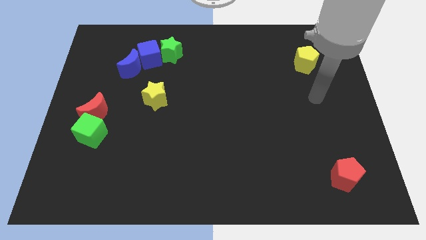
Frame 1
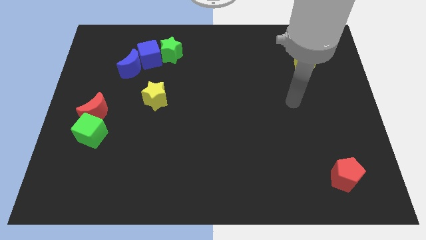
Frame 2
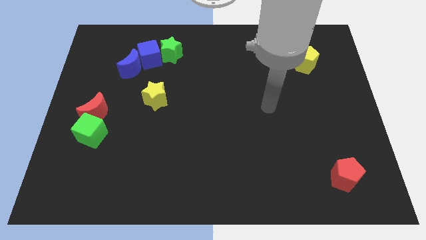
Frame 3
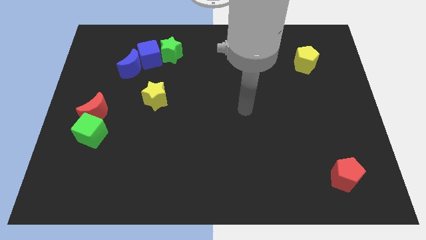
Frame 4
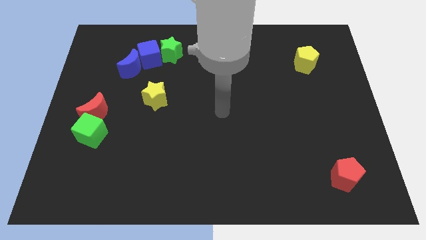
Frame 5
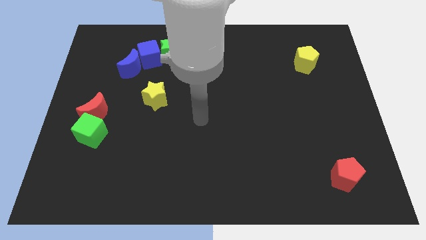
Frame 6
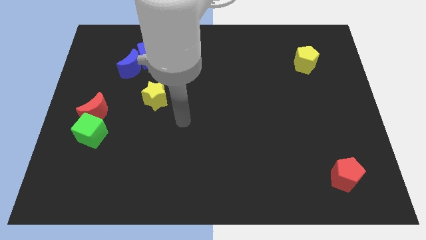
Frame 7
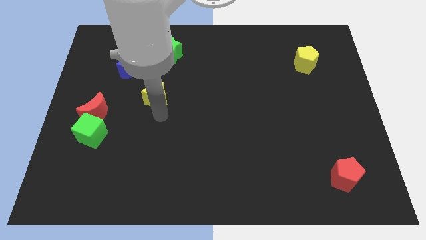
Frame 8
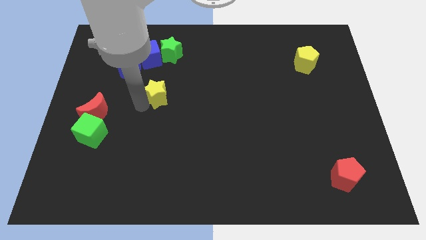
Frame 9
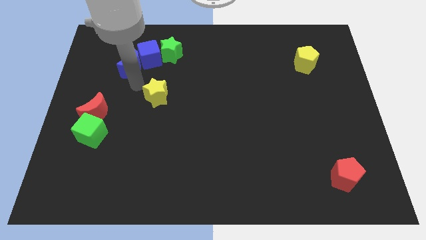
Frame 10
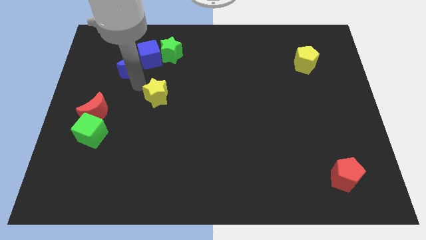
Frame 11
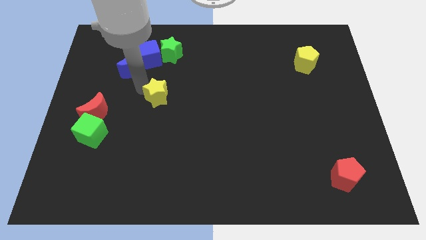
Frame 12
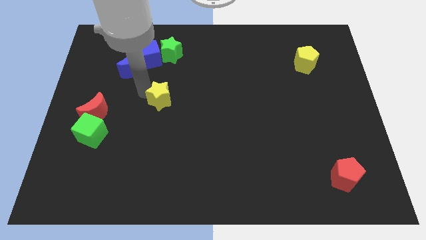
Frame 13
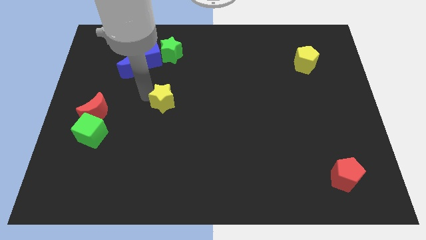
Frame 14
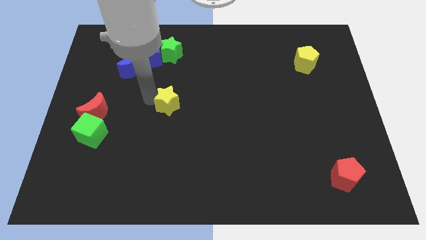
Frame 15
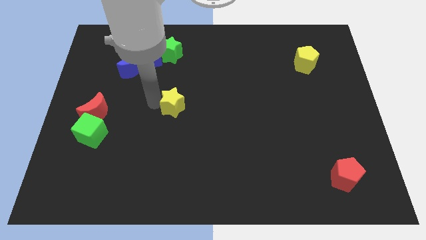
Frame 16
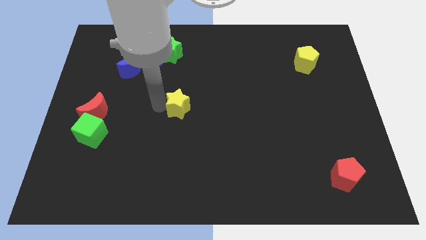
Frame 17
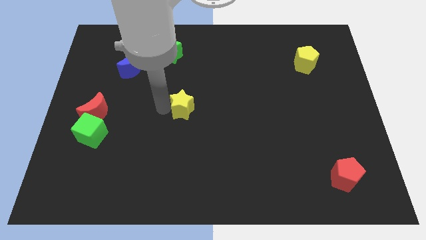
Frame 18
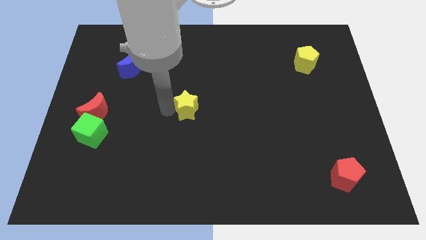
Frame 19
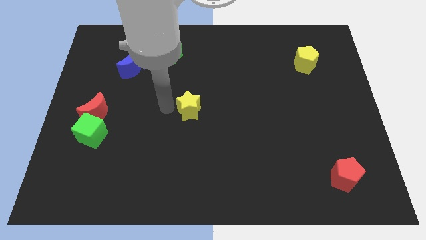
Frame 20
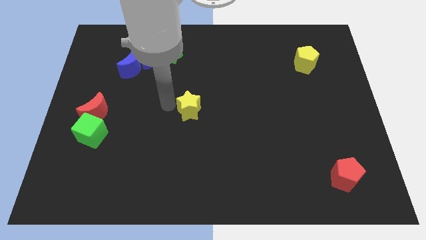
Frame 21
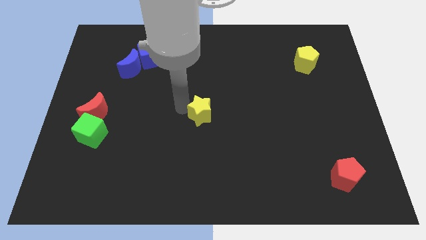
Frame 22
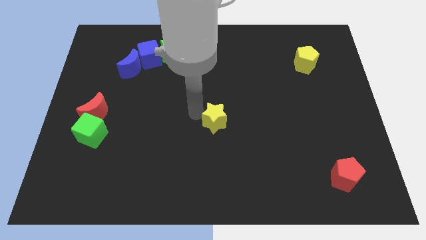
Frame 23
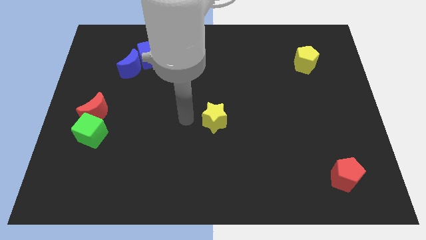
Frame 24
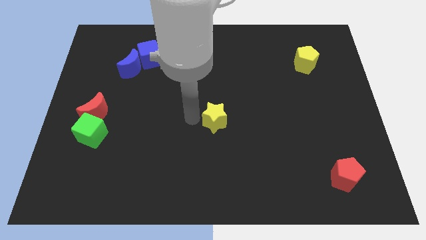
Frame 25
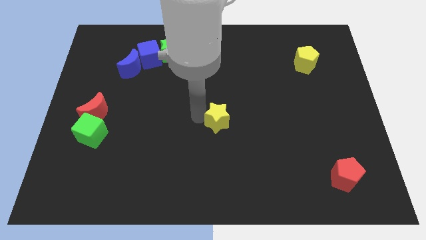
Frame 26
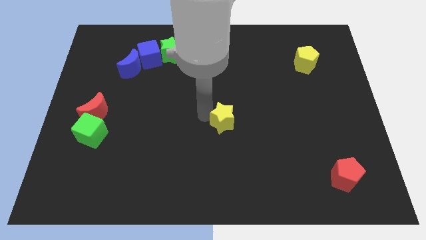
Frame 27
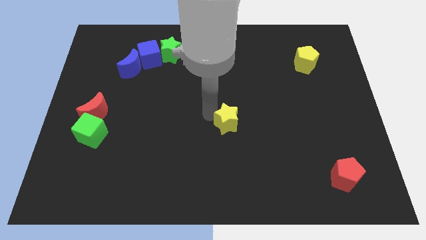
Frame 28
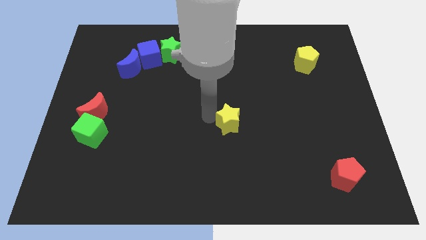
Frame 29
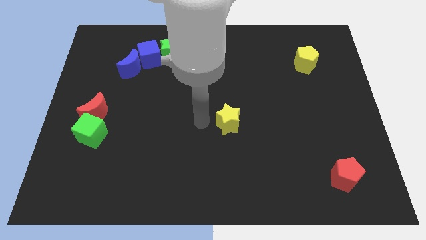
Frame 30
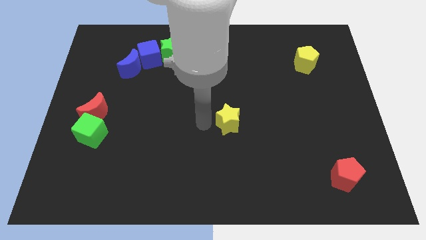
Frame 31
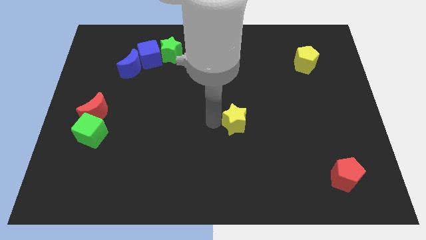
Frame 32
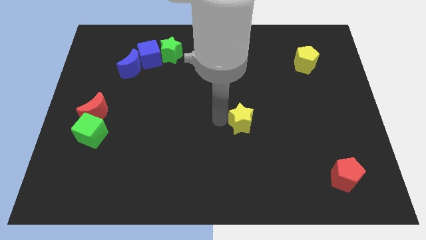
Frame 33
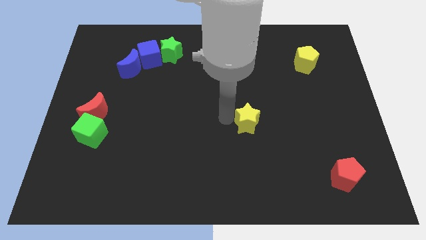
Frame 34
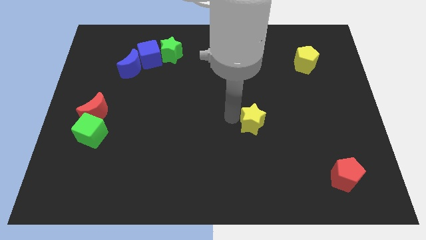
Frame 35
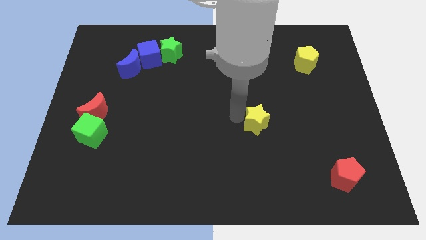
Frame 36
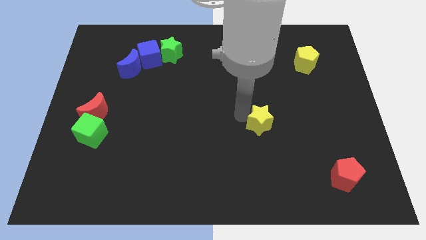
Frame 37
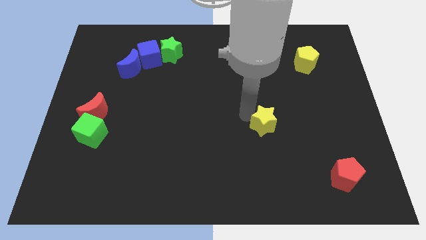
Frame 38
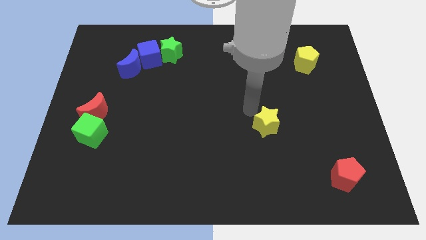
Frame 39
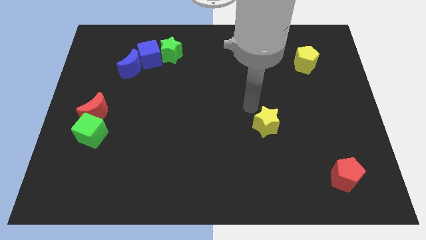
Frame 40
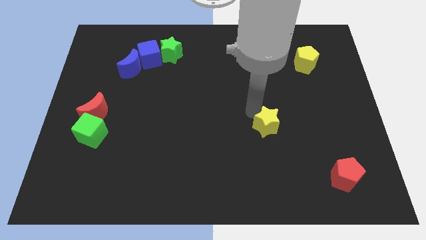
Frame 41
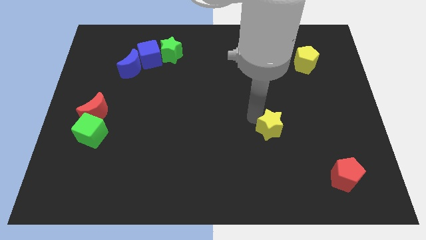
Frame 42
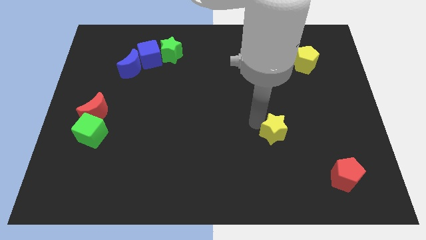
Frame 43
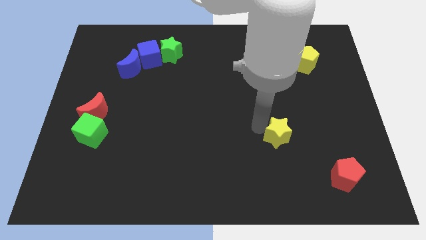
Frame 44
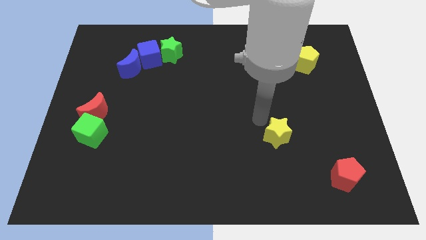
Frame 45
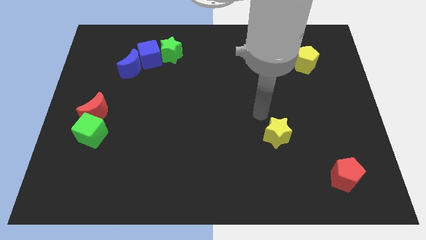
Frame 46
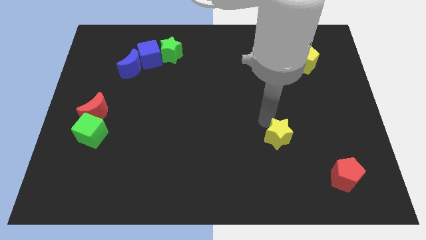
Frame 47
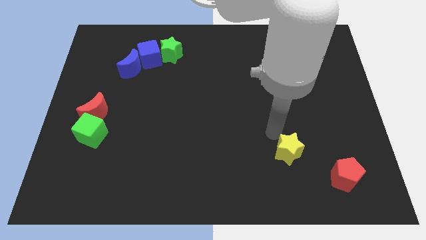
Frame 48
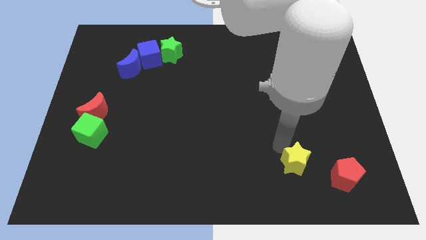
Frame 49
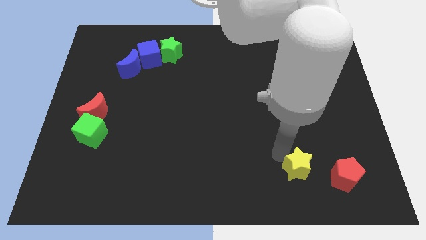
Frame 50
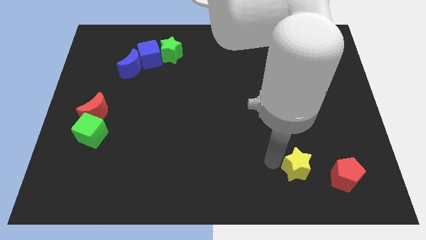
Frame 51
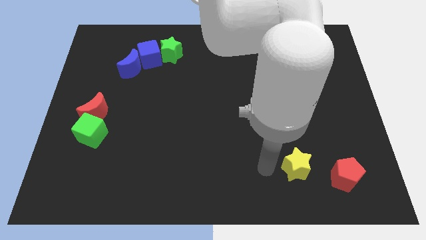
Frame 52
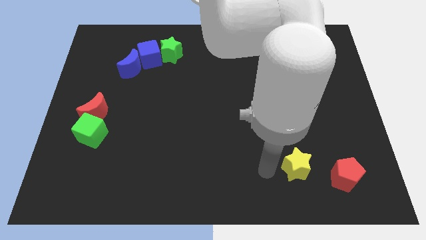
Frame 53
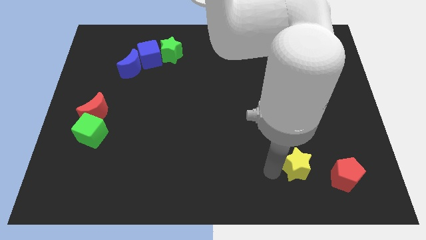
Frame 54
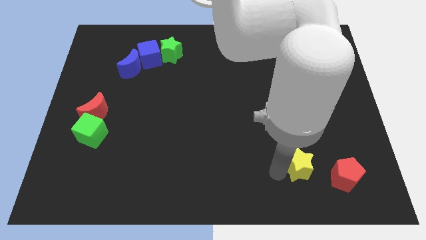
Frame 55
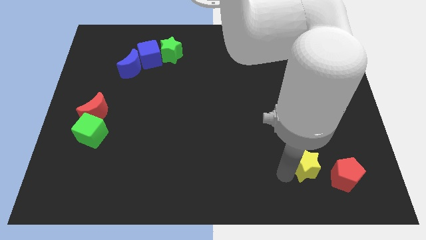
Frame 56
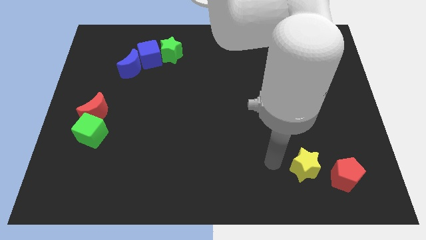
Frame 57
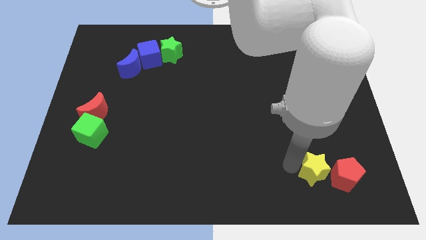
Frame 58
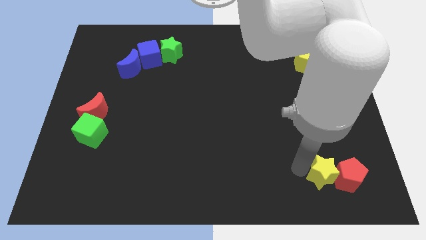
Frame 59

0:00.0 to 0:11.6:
slide the yellow star next to the red pentagon

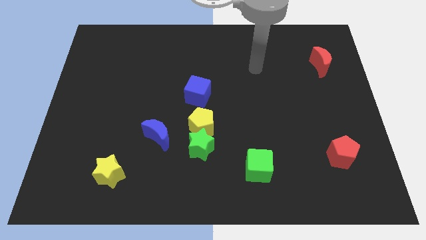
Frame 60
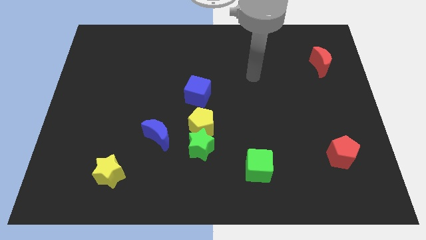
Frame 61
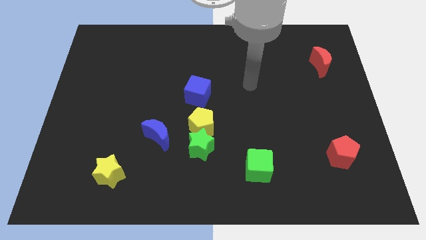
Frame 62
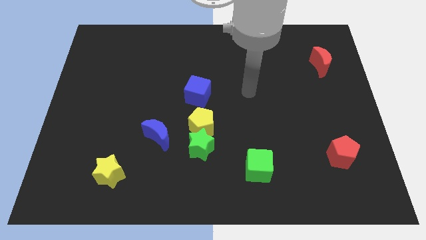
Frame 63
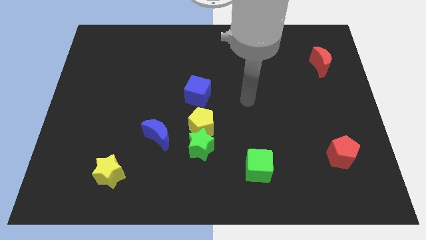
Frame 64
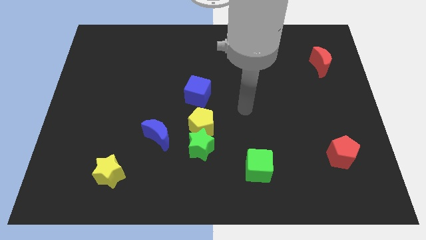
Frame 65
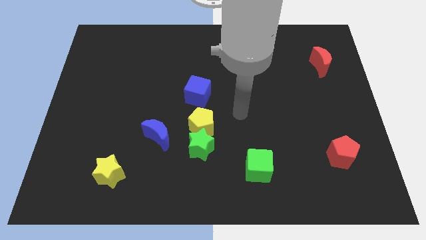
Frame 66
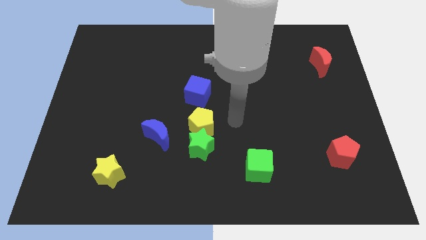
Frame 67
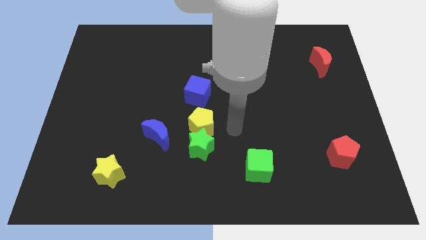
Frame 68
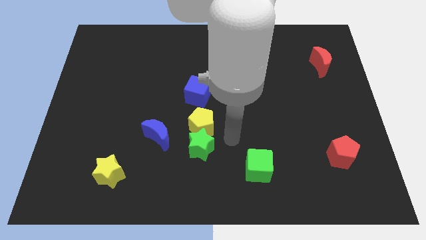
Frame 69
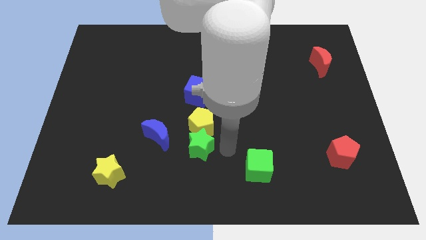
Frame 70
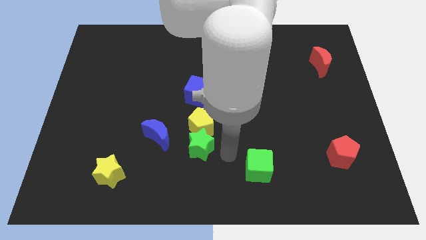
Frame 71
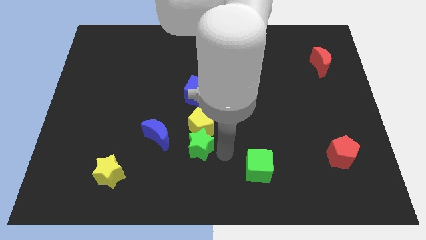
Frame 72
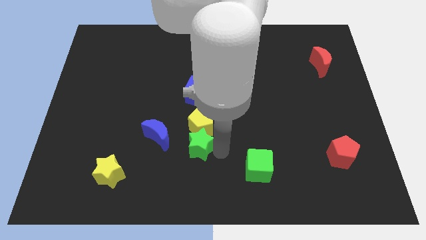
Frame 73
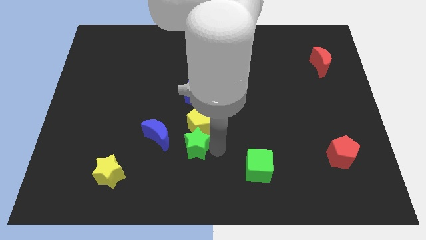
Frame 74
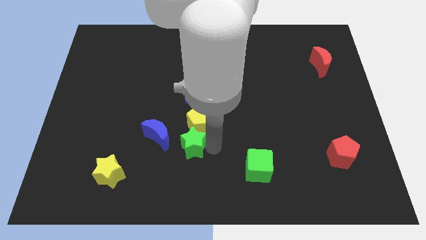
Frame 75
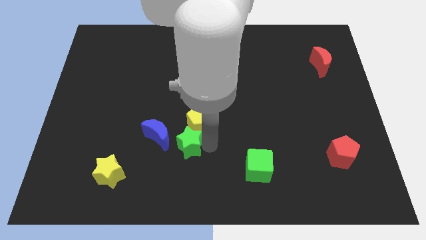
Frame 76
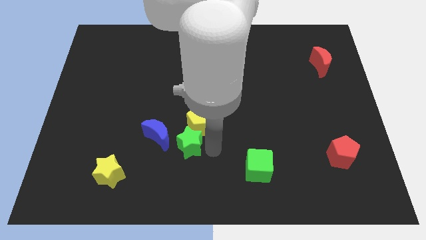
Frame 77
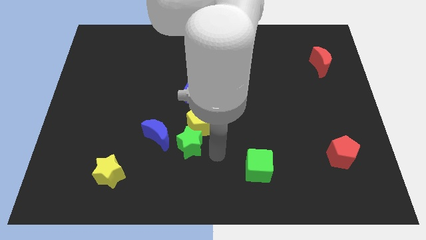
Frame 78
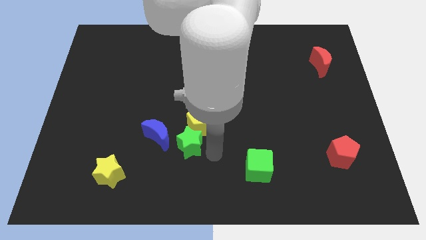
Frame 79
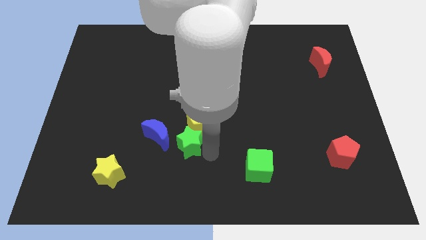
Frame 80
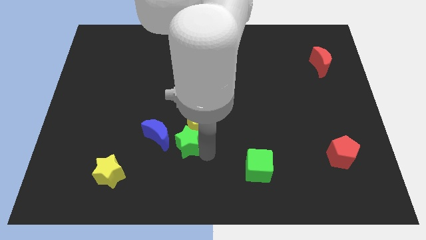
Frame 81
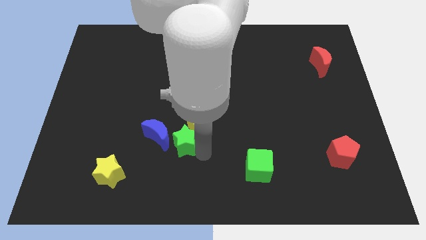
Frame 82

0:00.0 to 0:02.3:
put the green star to the blue moon
